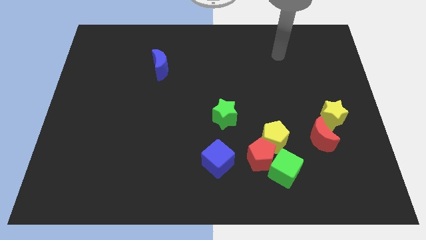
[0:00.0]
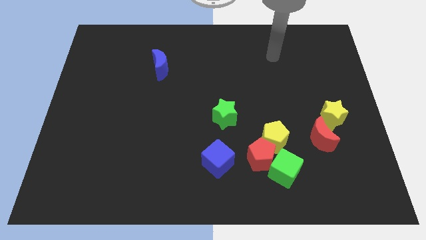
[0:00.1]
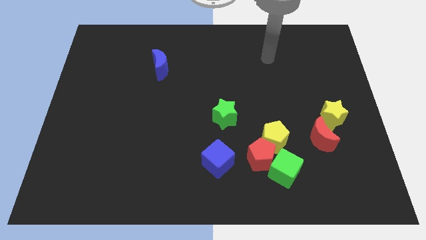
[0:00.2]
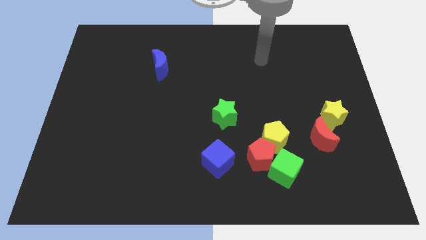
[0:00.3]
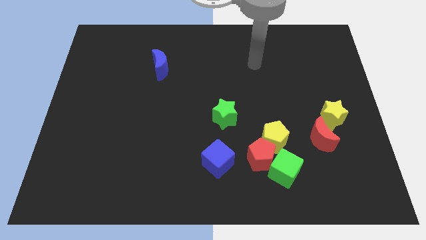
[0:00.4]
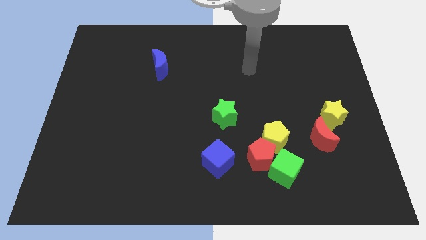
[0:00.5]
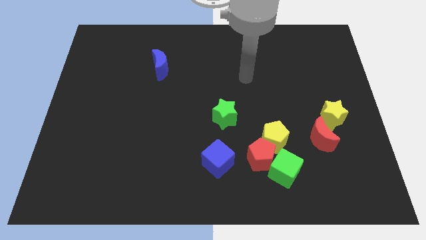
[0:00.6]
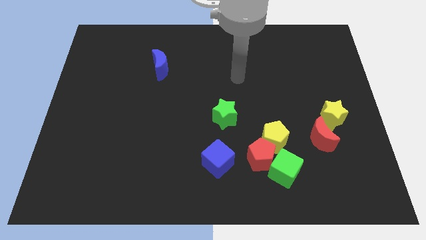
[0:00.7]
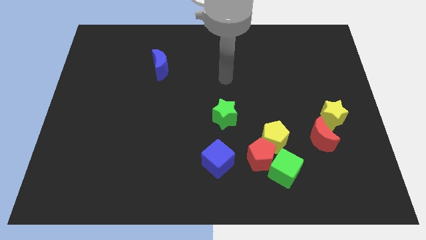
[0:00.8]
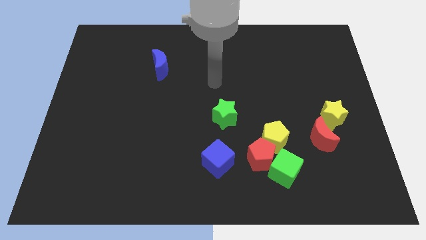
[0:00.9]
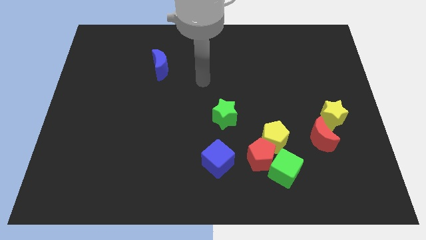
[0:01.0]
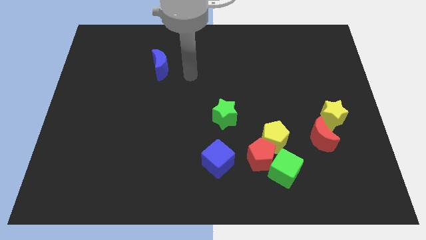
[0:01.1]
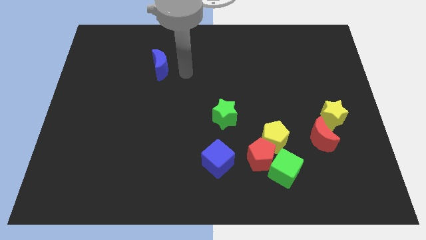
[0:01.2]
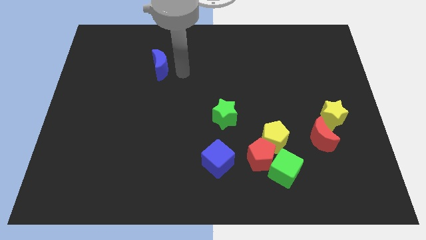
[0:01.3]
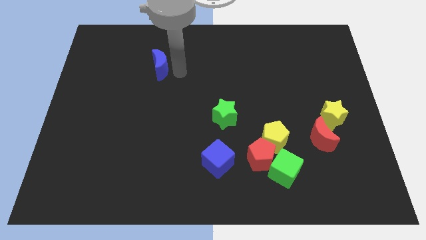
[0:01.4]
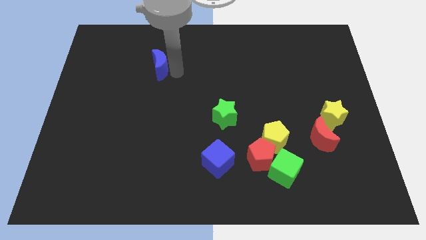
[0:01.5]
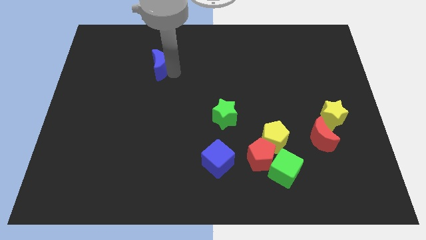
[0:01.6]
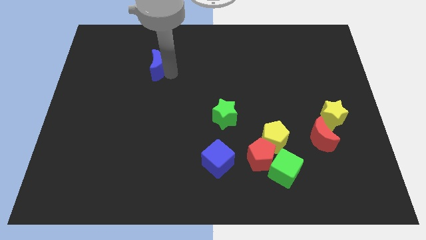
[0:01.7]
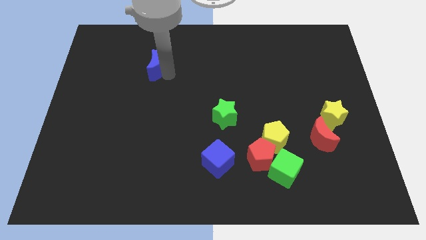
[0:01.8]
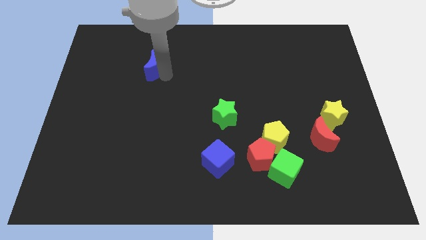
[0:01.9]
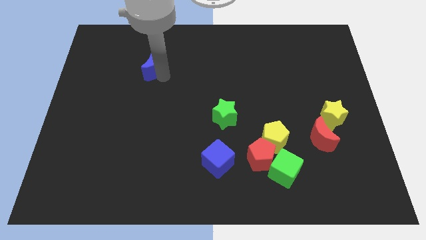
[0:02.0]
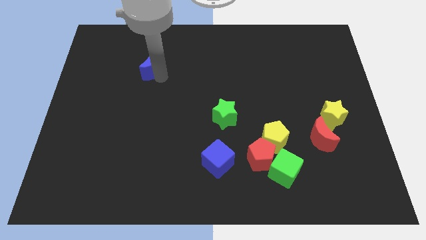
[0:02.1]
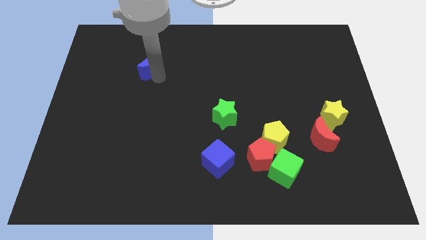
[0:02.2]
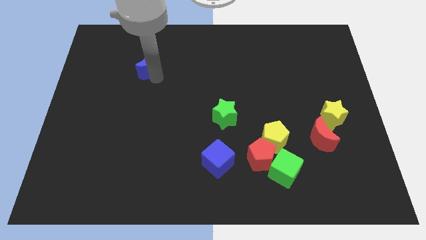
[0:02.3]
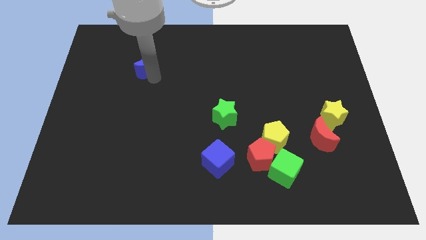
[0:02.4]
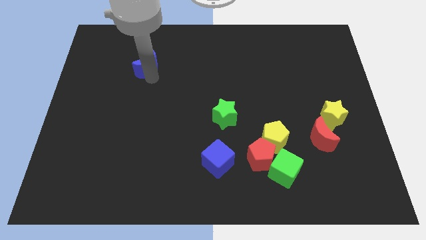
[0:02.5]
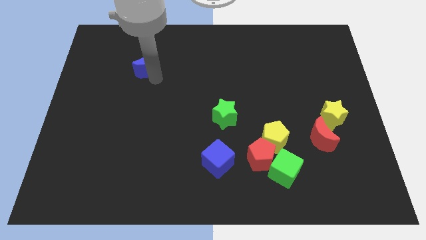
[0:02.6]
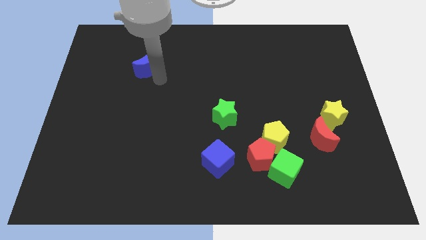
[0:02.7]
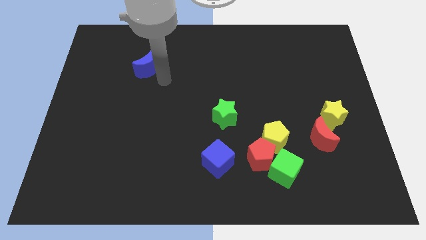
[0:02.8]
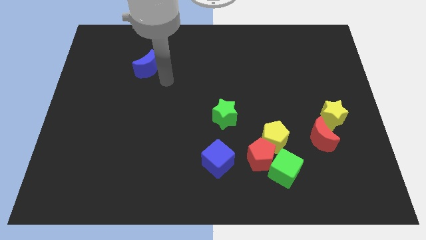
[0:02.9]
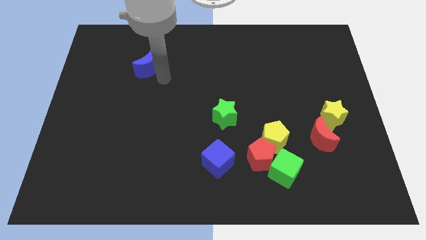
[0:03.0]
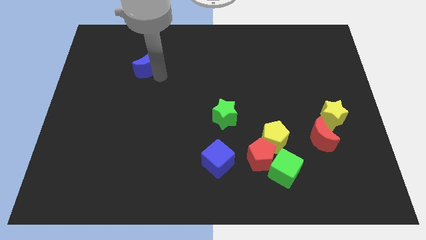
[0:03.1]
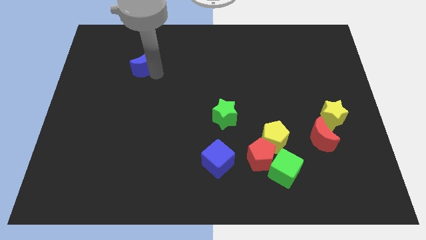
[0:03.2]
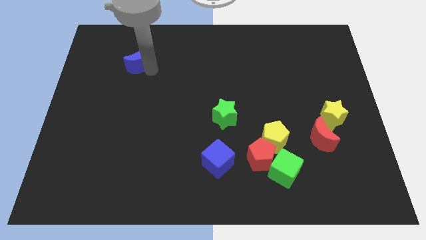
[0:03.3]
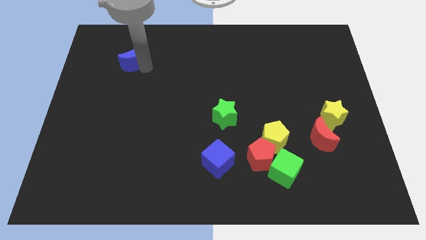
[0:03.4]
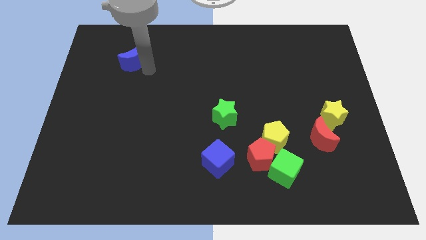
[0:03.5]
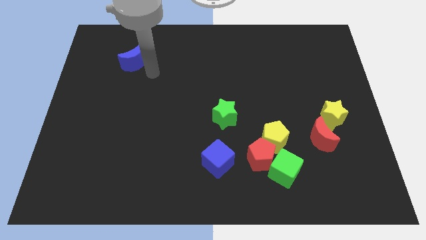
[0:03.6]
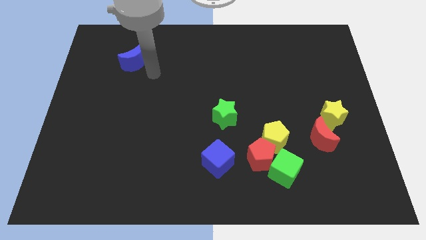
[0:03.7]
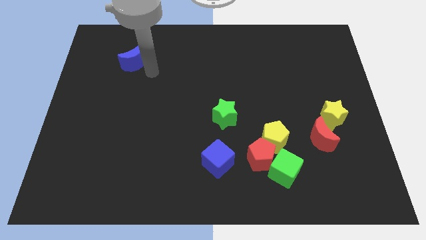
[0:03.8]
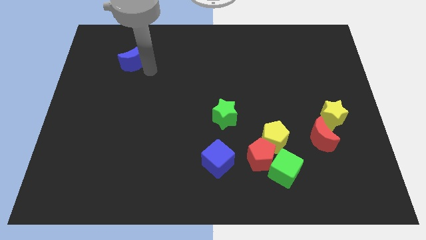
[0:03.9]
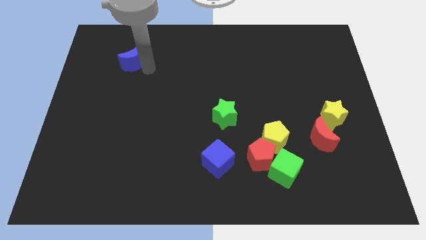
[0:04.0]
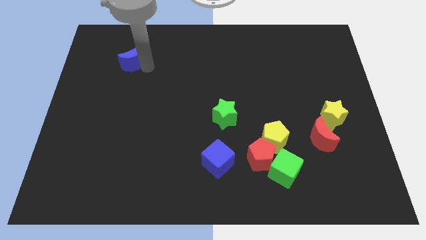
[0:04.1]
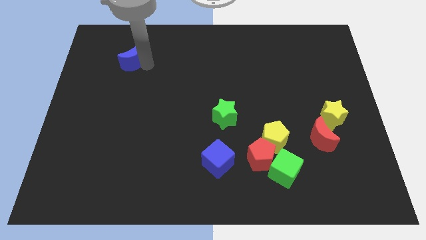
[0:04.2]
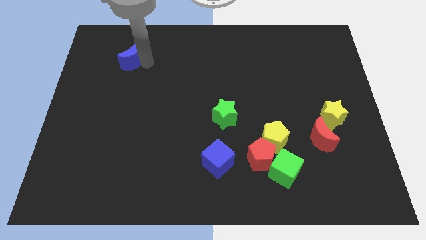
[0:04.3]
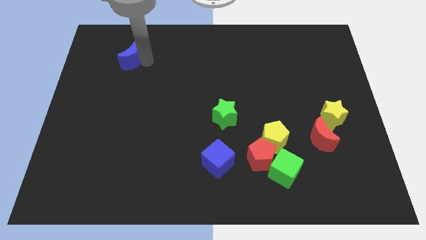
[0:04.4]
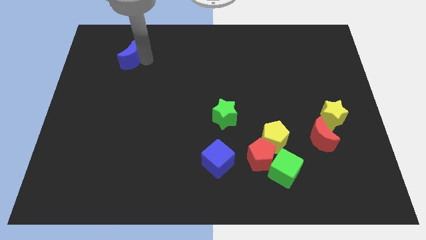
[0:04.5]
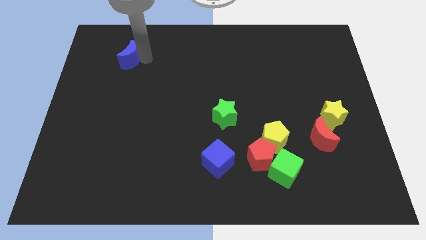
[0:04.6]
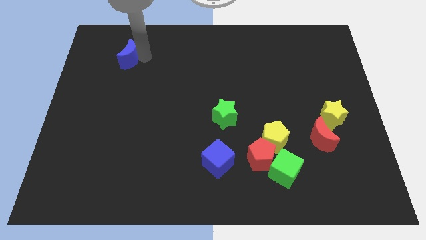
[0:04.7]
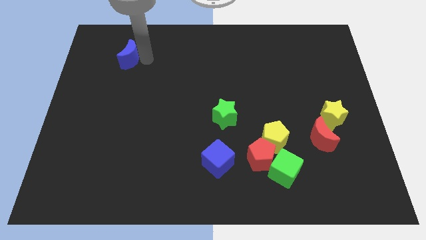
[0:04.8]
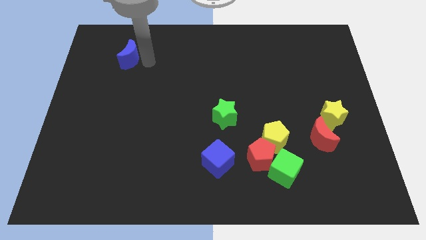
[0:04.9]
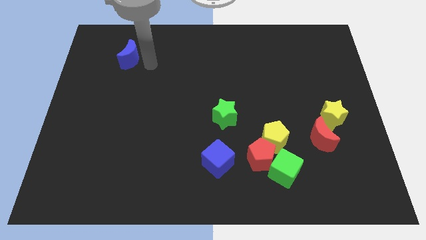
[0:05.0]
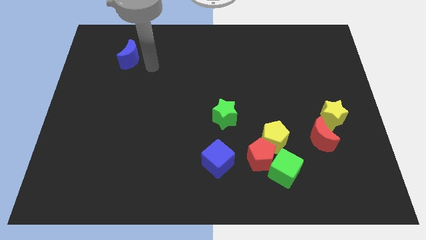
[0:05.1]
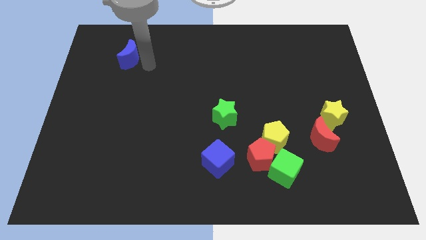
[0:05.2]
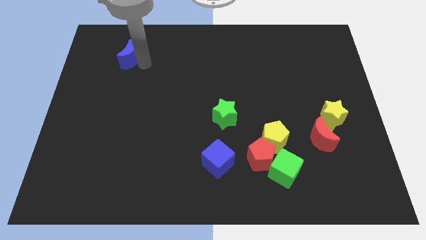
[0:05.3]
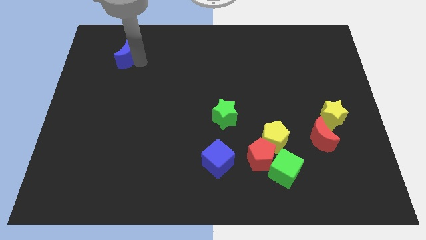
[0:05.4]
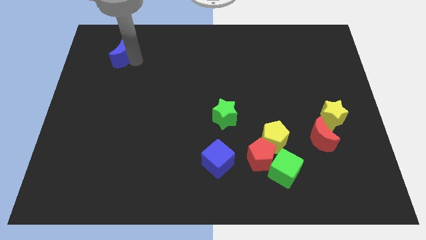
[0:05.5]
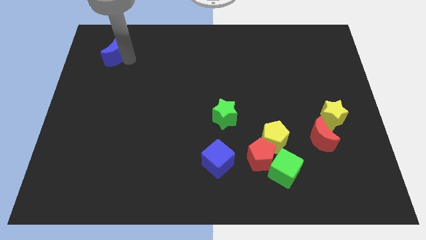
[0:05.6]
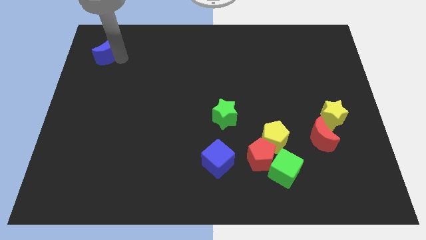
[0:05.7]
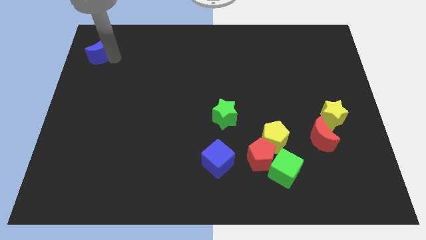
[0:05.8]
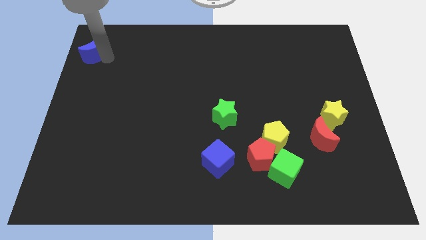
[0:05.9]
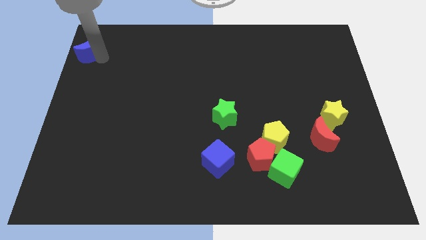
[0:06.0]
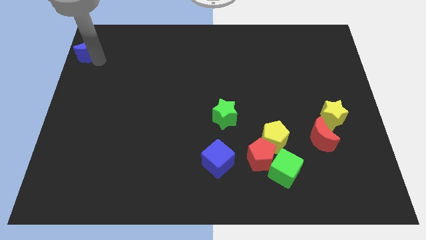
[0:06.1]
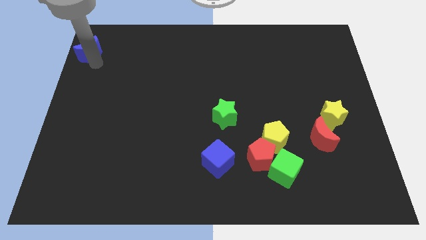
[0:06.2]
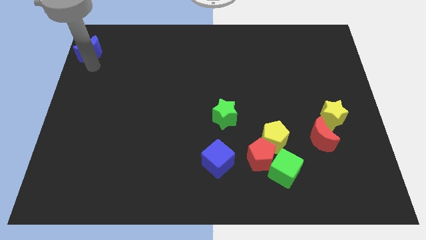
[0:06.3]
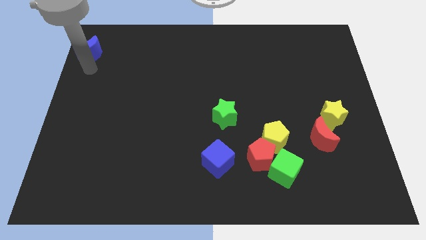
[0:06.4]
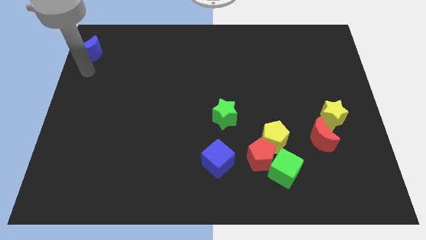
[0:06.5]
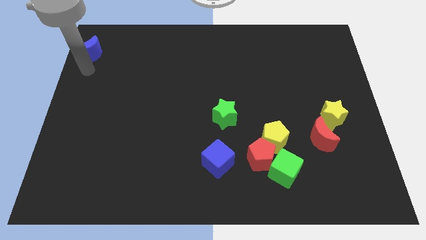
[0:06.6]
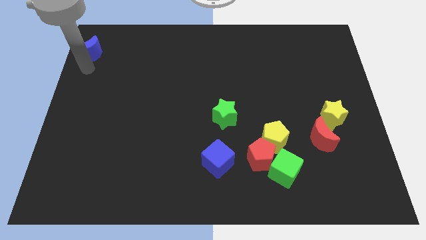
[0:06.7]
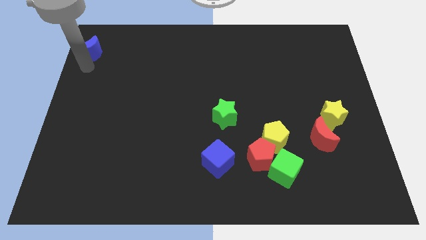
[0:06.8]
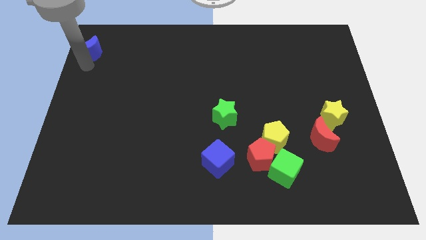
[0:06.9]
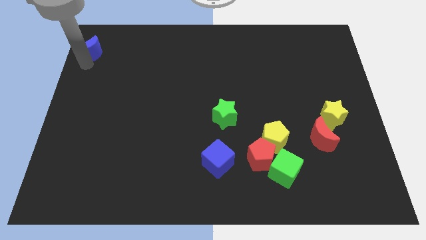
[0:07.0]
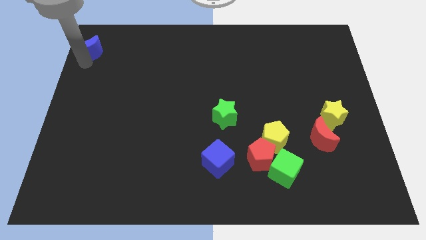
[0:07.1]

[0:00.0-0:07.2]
put the blue moon to the top left of the board
